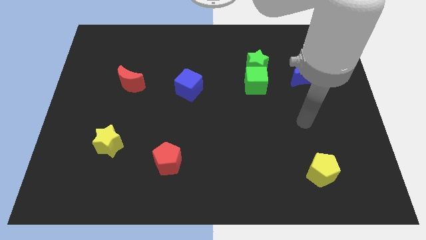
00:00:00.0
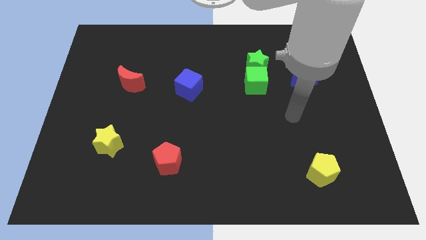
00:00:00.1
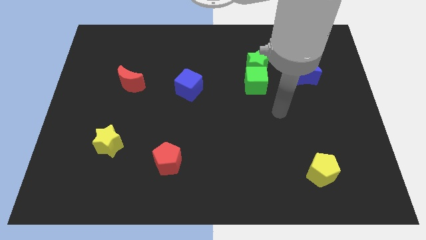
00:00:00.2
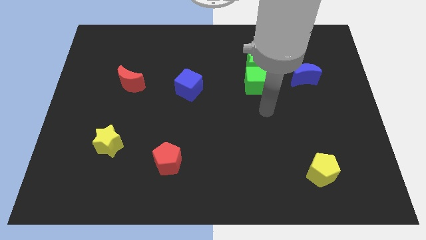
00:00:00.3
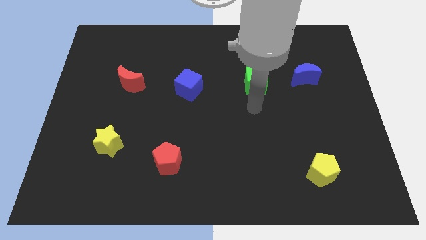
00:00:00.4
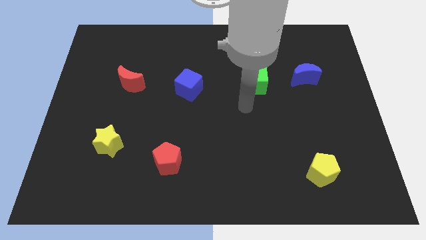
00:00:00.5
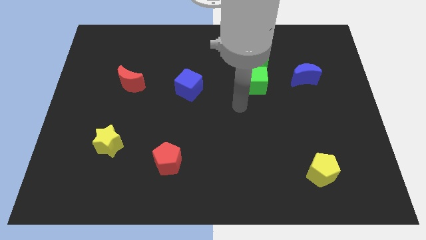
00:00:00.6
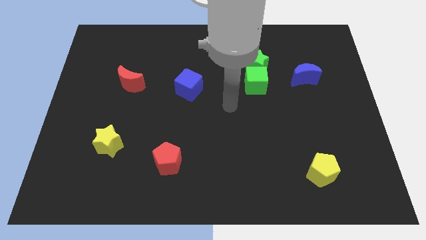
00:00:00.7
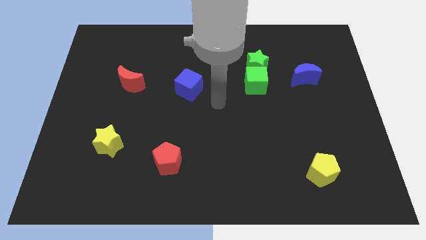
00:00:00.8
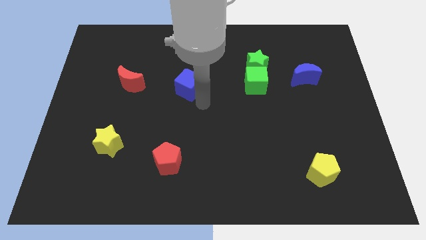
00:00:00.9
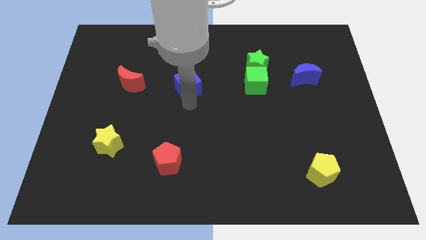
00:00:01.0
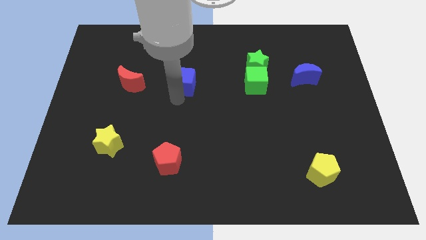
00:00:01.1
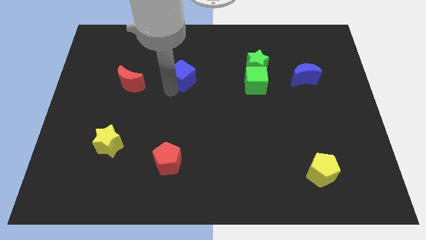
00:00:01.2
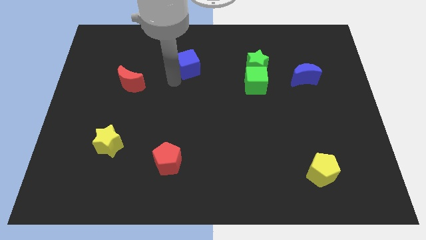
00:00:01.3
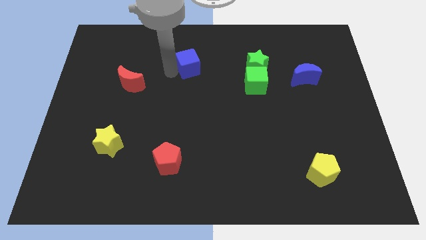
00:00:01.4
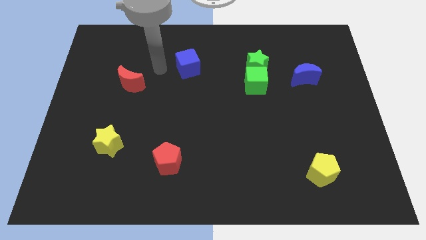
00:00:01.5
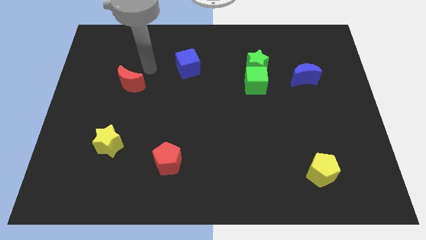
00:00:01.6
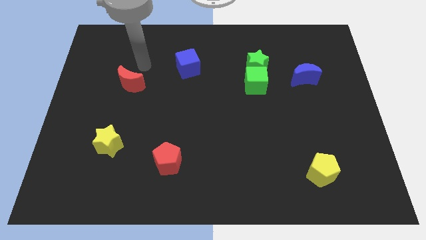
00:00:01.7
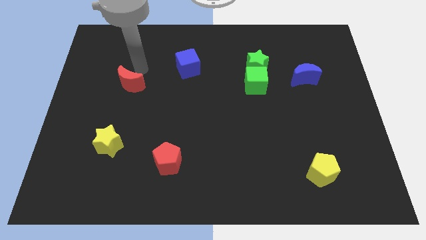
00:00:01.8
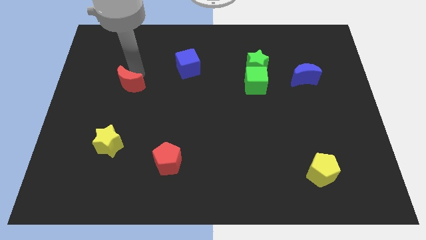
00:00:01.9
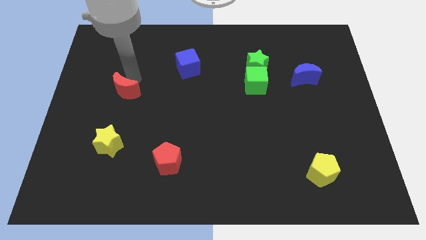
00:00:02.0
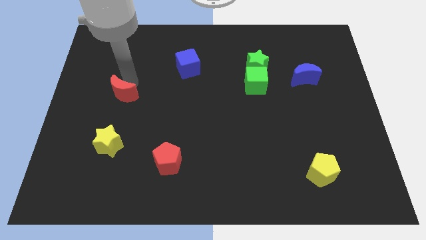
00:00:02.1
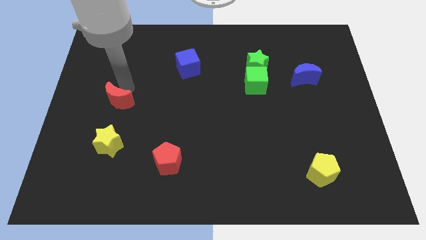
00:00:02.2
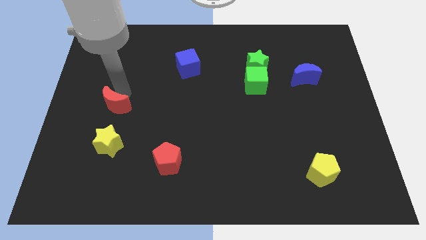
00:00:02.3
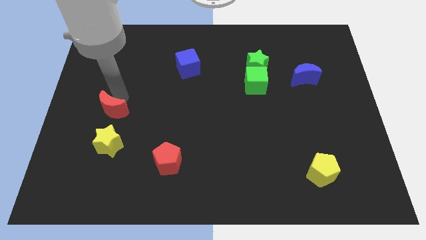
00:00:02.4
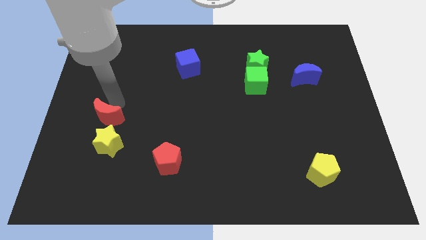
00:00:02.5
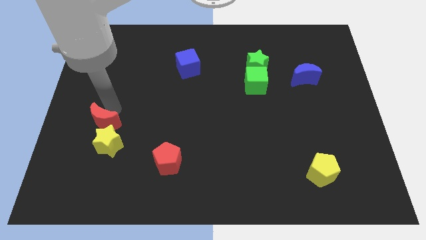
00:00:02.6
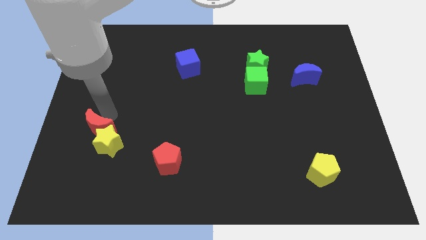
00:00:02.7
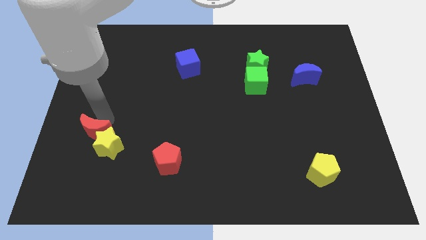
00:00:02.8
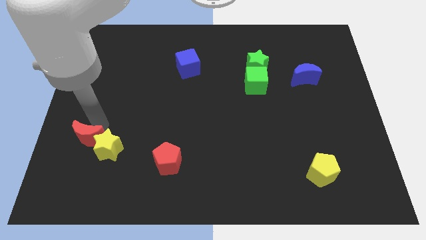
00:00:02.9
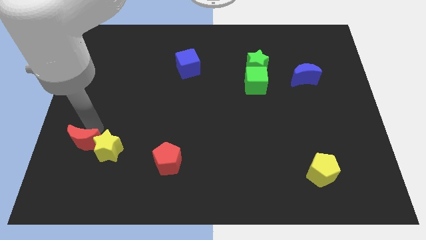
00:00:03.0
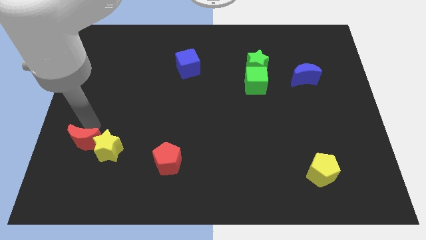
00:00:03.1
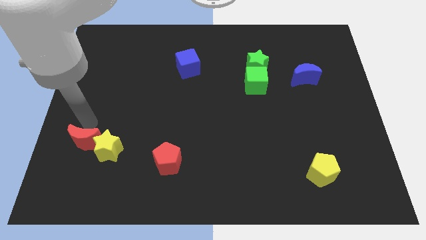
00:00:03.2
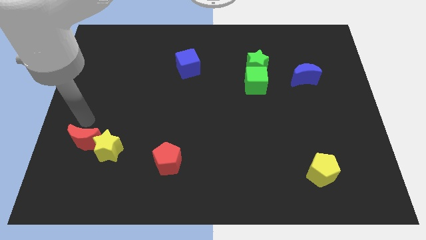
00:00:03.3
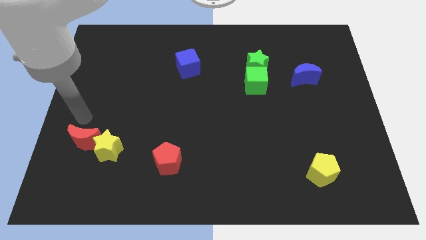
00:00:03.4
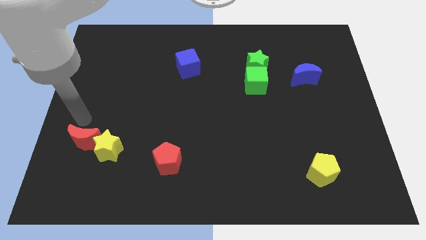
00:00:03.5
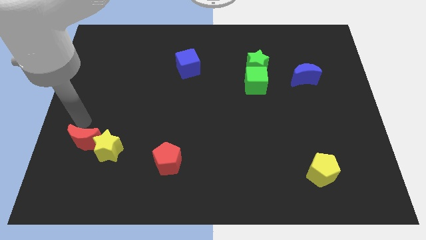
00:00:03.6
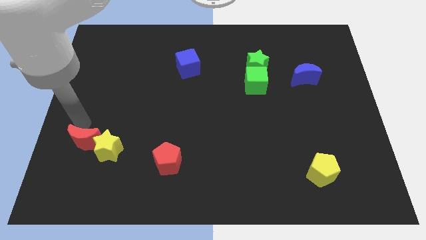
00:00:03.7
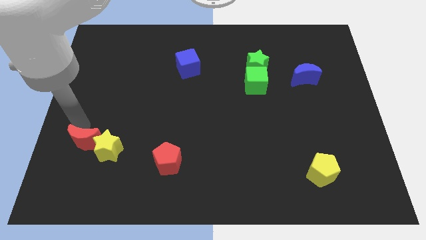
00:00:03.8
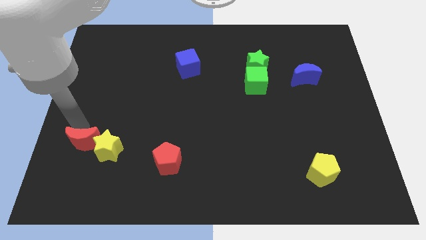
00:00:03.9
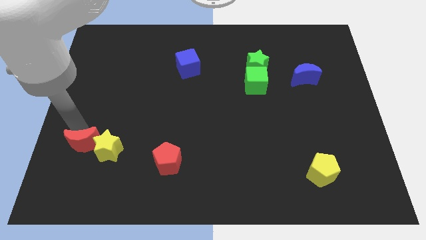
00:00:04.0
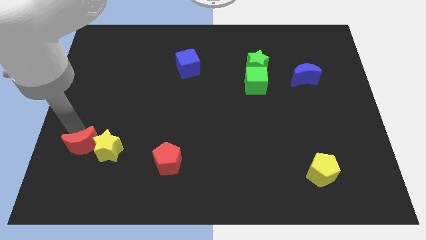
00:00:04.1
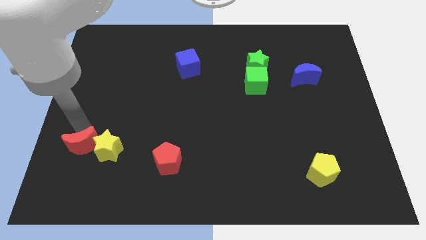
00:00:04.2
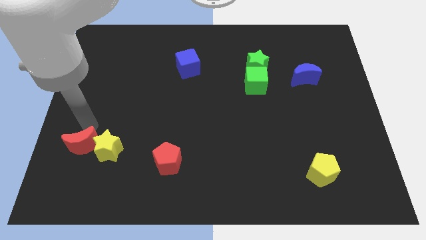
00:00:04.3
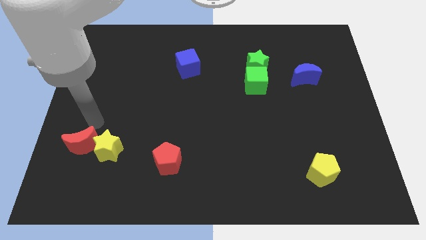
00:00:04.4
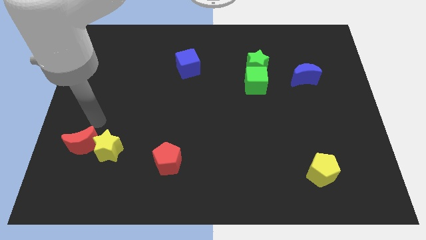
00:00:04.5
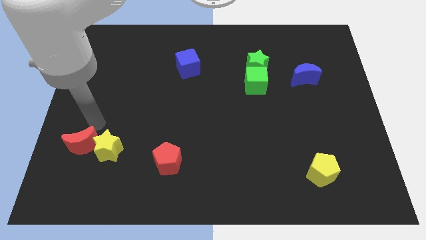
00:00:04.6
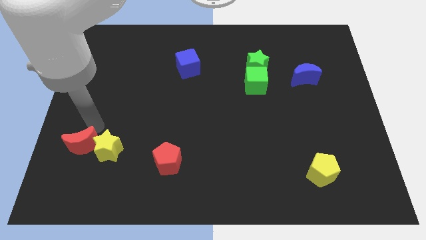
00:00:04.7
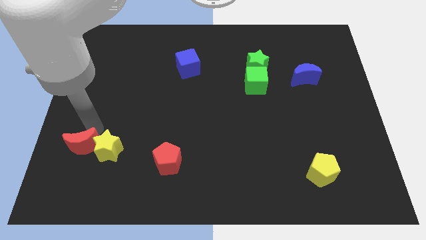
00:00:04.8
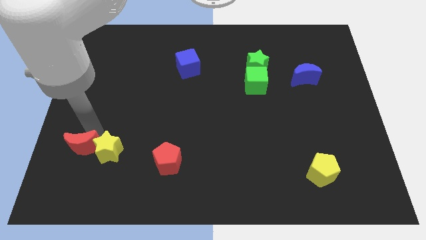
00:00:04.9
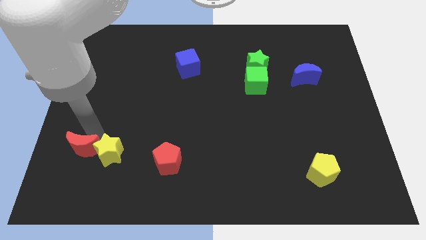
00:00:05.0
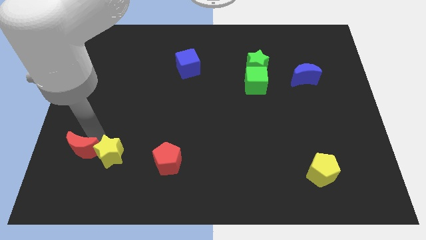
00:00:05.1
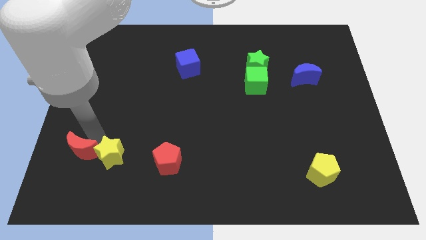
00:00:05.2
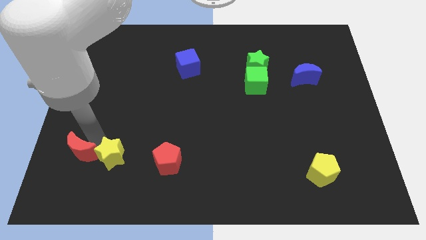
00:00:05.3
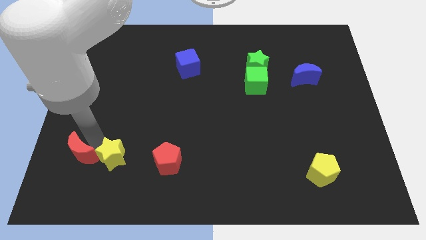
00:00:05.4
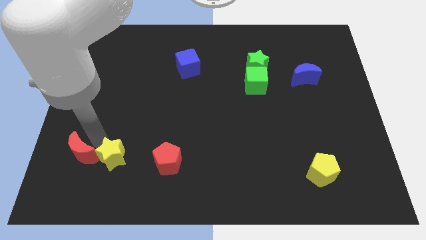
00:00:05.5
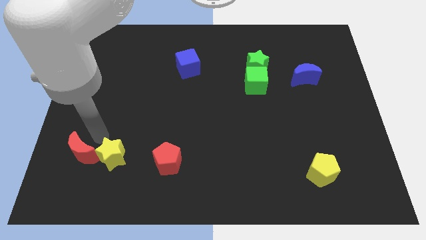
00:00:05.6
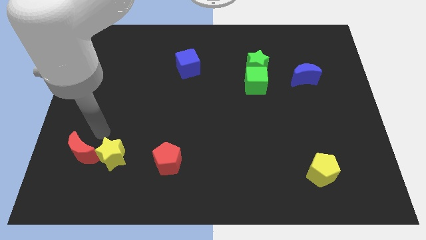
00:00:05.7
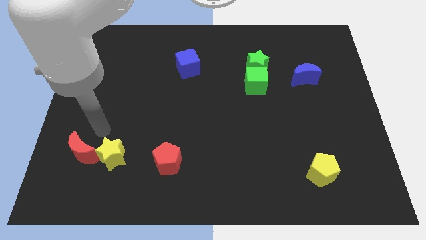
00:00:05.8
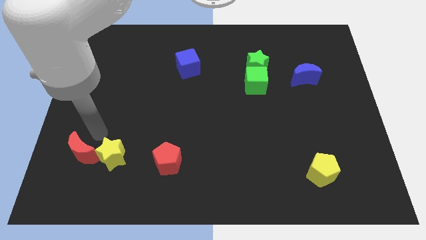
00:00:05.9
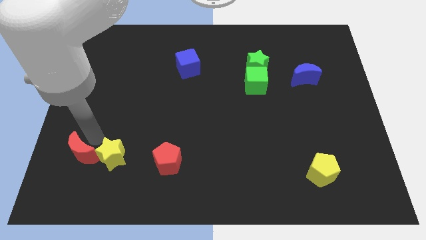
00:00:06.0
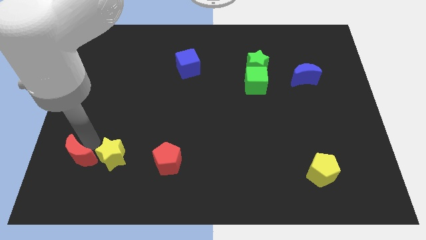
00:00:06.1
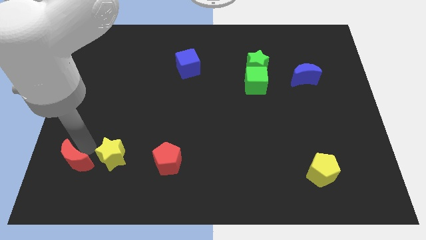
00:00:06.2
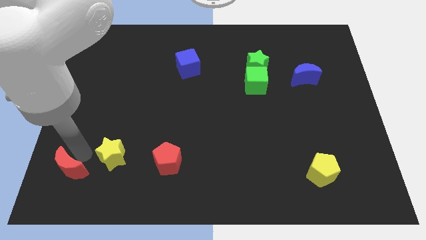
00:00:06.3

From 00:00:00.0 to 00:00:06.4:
put the red moon to the bottom left

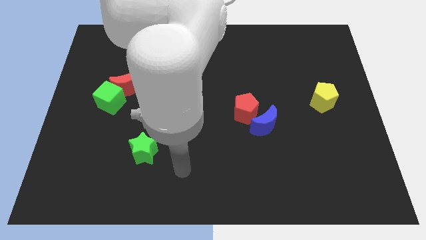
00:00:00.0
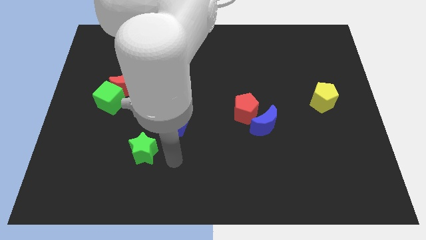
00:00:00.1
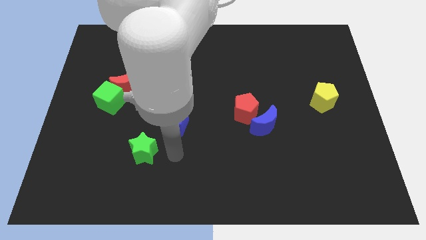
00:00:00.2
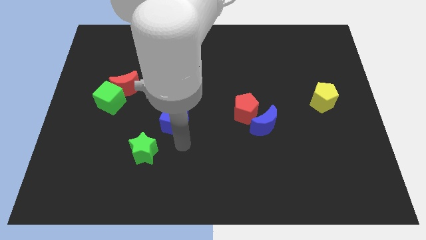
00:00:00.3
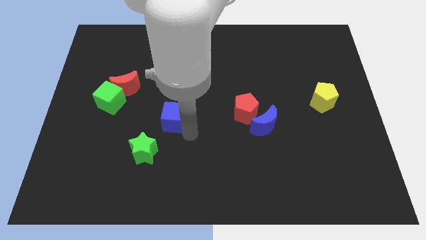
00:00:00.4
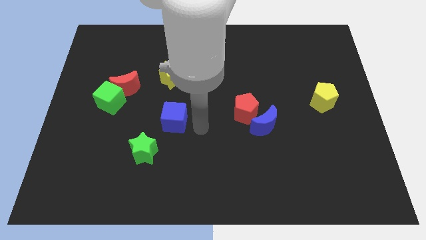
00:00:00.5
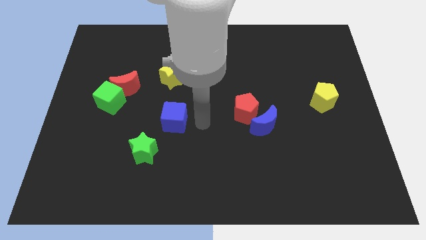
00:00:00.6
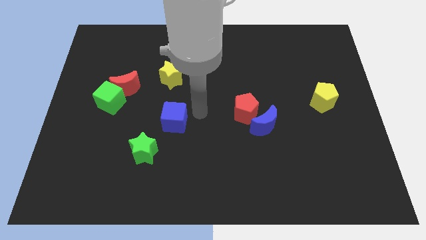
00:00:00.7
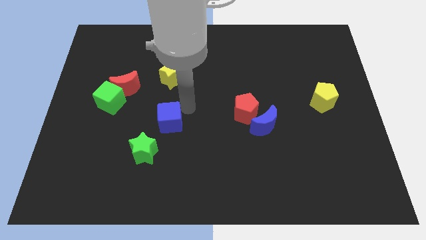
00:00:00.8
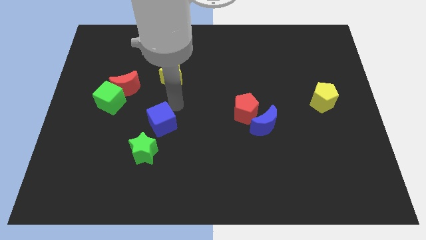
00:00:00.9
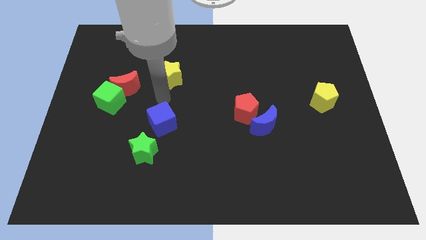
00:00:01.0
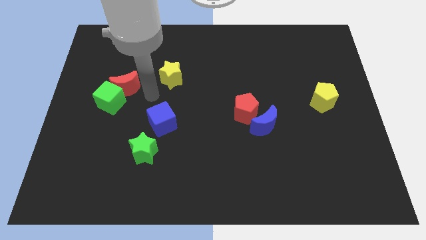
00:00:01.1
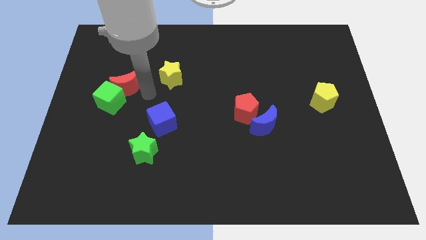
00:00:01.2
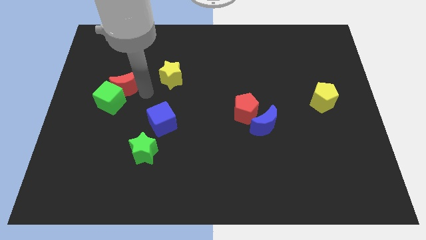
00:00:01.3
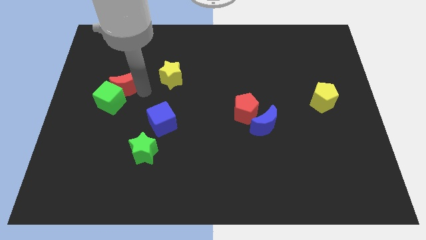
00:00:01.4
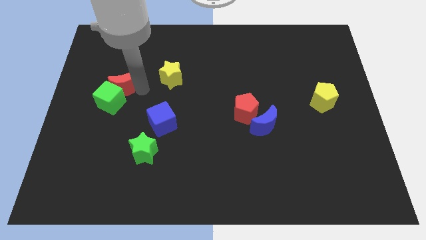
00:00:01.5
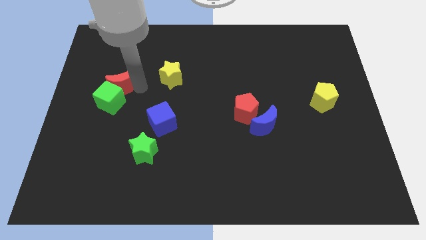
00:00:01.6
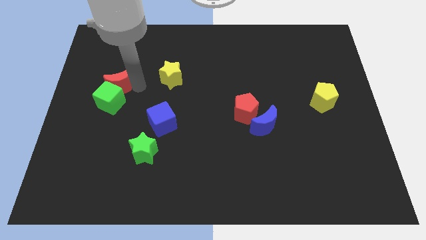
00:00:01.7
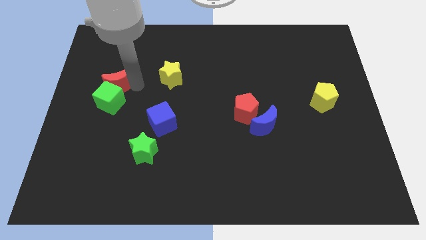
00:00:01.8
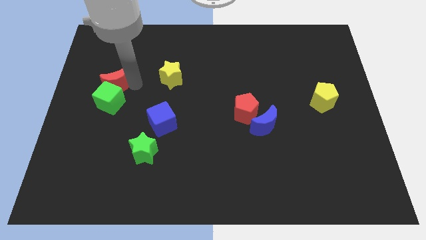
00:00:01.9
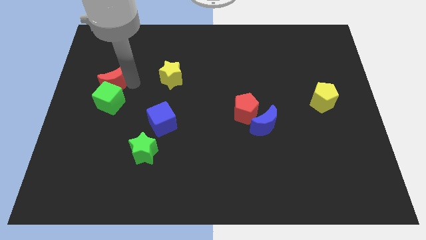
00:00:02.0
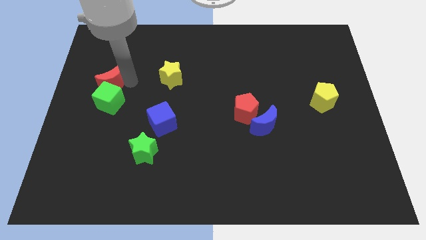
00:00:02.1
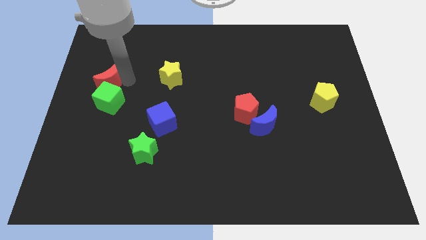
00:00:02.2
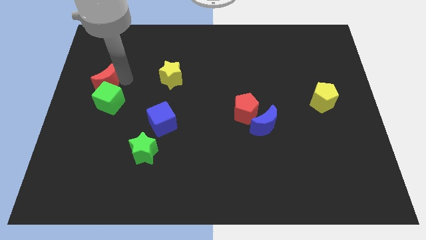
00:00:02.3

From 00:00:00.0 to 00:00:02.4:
slide the red moon to the left side
